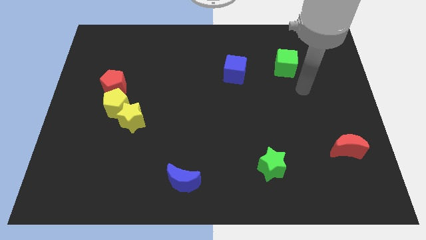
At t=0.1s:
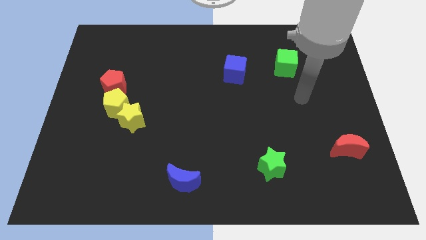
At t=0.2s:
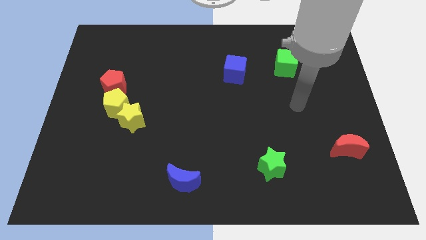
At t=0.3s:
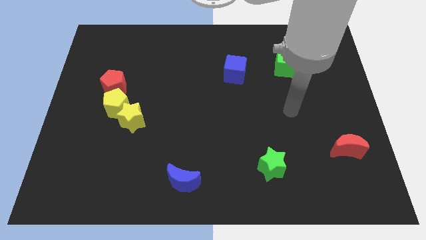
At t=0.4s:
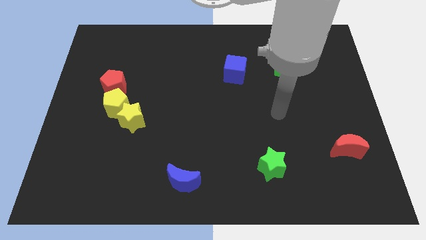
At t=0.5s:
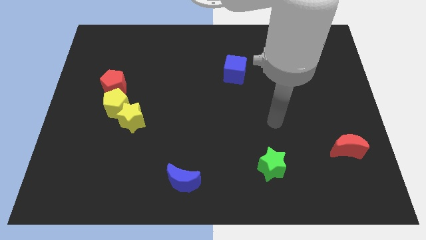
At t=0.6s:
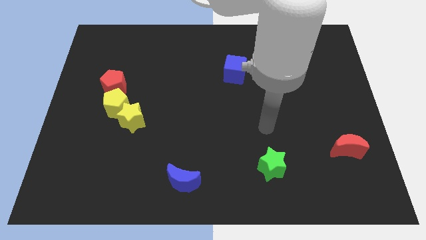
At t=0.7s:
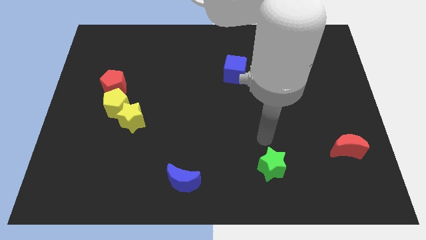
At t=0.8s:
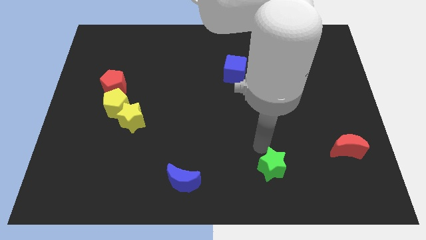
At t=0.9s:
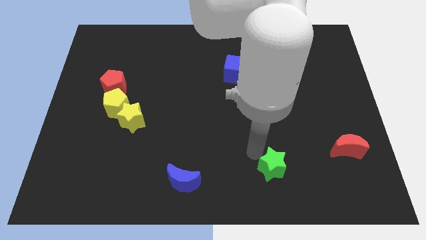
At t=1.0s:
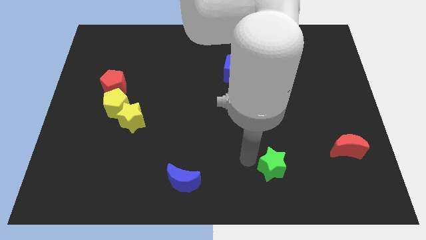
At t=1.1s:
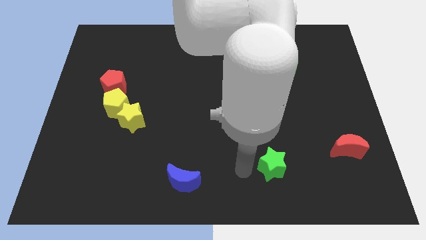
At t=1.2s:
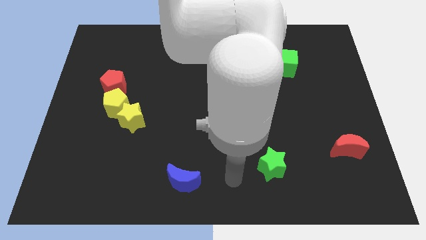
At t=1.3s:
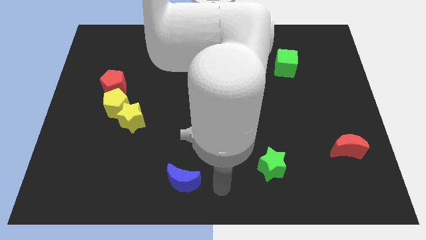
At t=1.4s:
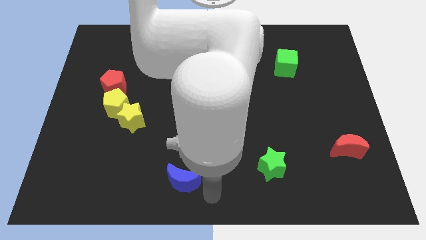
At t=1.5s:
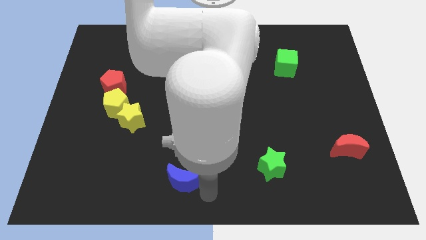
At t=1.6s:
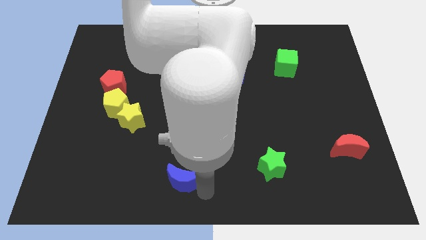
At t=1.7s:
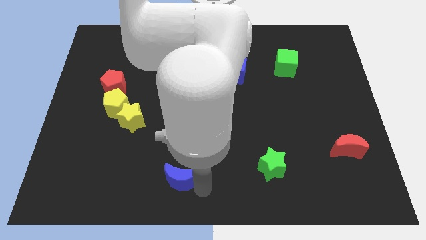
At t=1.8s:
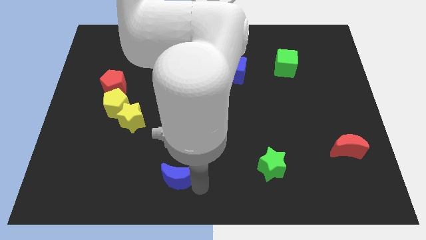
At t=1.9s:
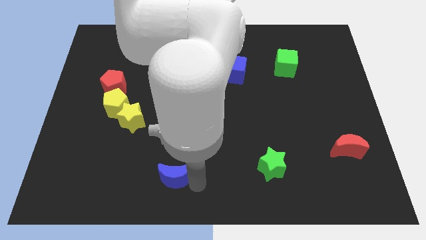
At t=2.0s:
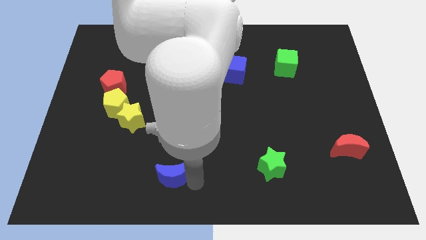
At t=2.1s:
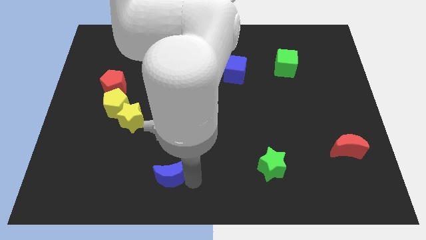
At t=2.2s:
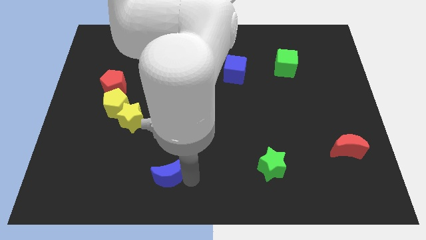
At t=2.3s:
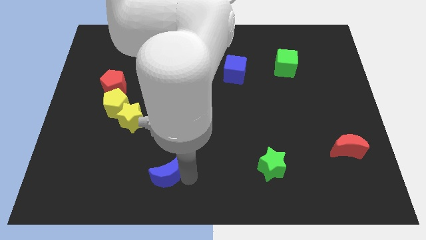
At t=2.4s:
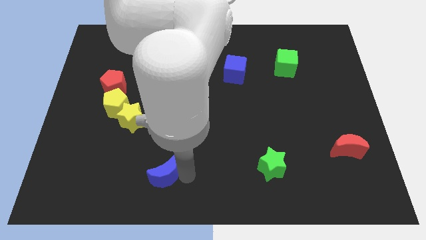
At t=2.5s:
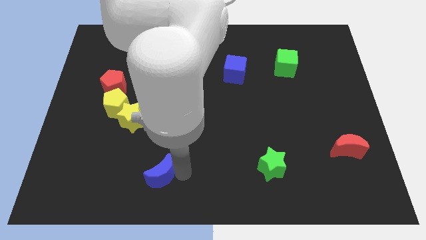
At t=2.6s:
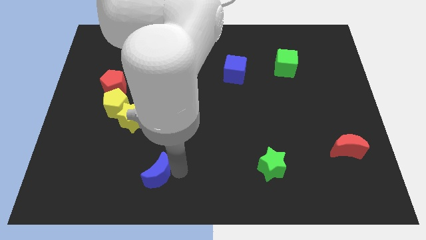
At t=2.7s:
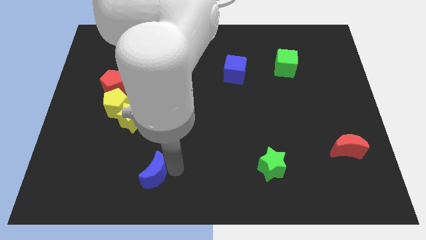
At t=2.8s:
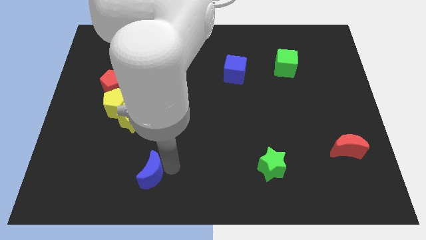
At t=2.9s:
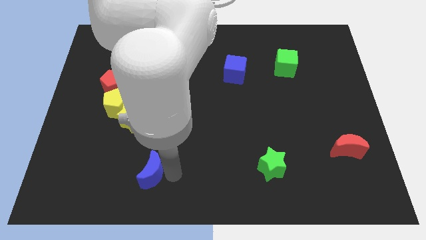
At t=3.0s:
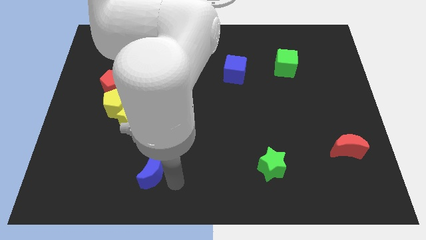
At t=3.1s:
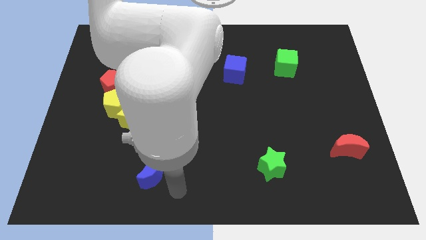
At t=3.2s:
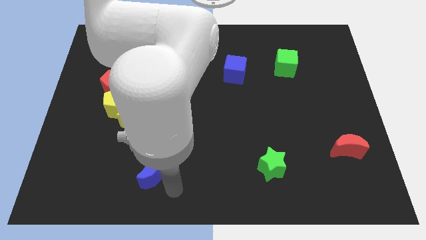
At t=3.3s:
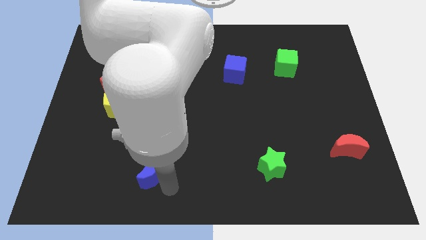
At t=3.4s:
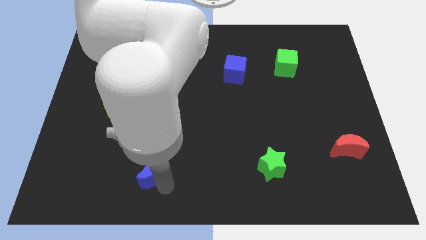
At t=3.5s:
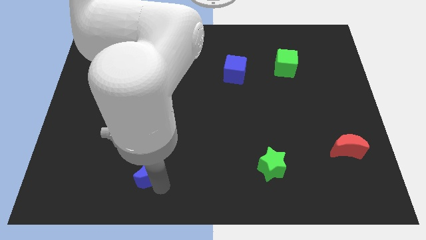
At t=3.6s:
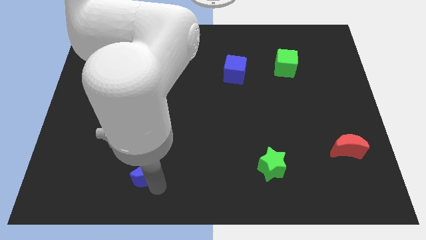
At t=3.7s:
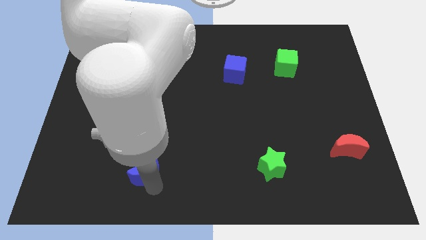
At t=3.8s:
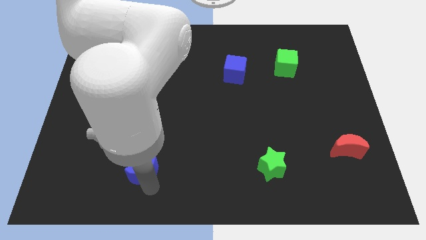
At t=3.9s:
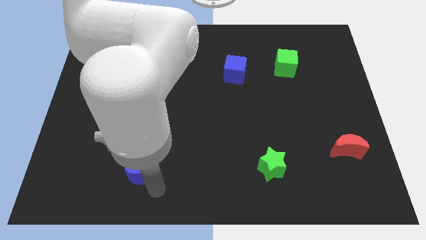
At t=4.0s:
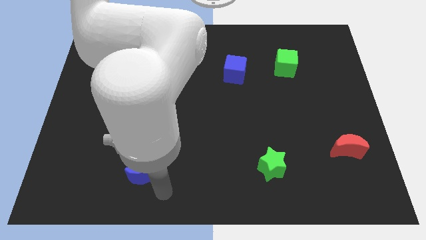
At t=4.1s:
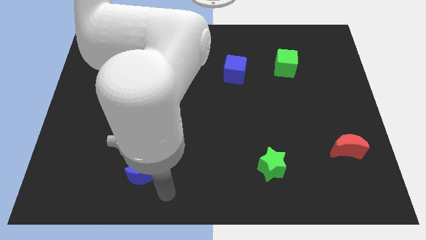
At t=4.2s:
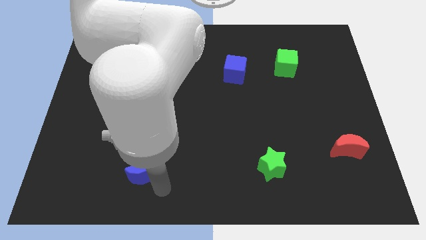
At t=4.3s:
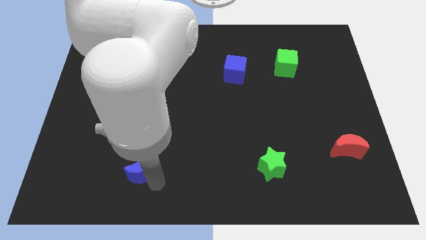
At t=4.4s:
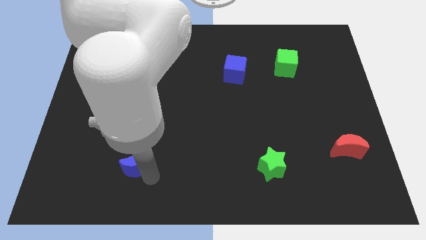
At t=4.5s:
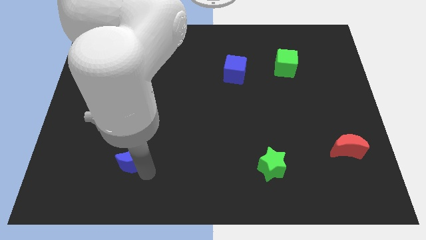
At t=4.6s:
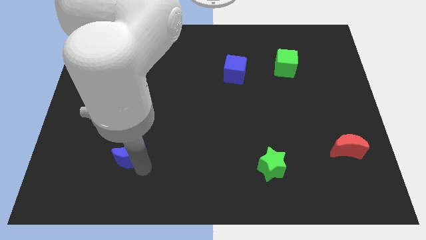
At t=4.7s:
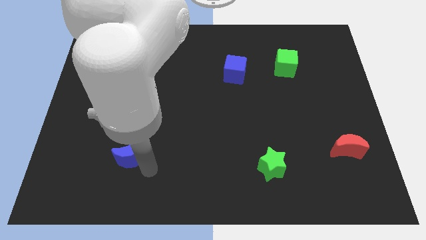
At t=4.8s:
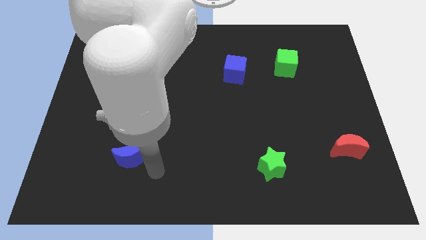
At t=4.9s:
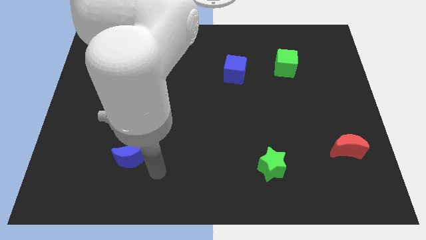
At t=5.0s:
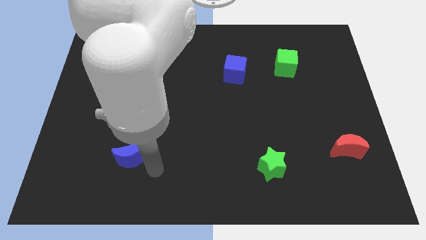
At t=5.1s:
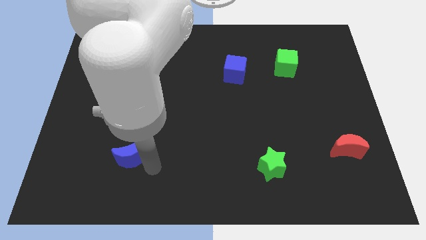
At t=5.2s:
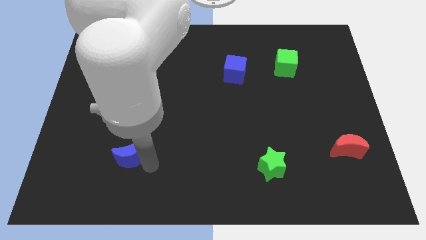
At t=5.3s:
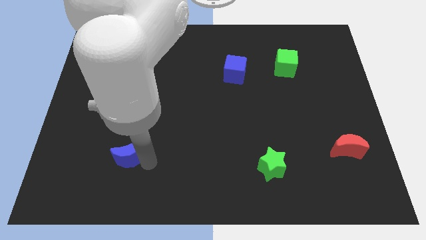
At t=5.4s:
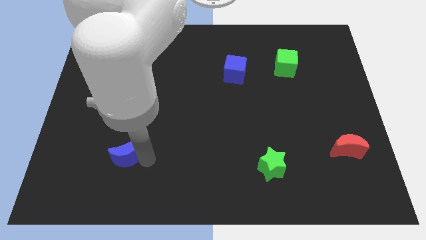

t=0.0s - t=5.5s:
slide the blue moon to the bottom side of the yellow pentagon

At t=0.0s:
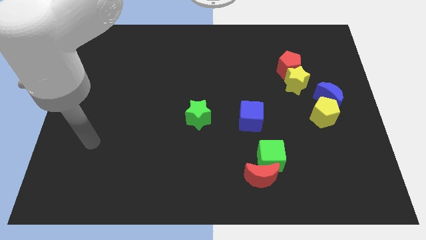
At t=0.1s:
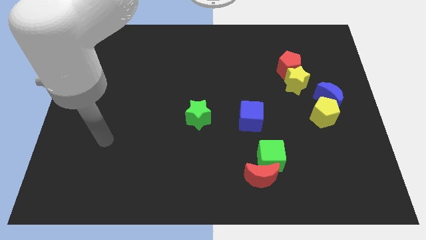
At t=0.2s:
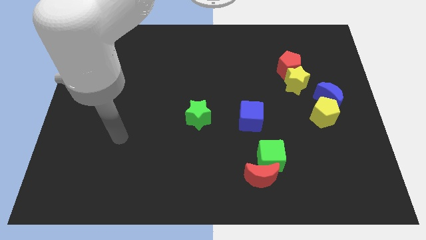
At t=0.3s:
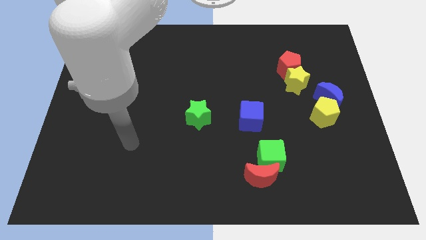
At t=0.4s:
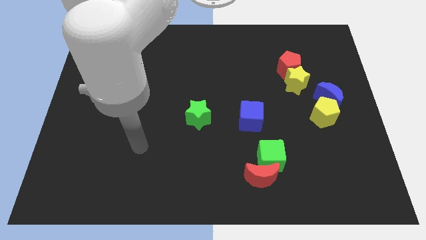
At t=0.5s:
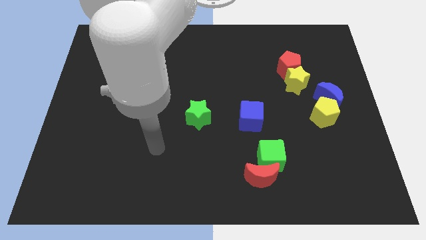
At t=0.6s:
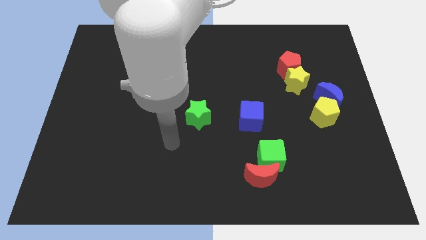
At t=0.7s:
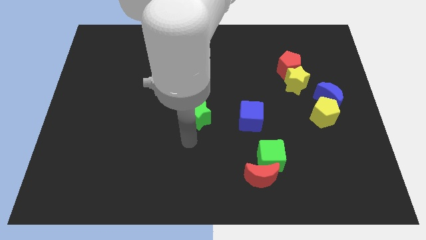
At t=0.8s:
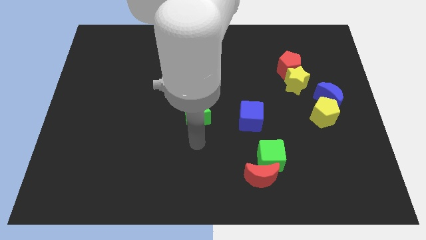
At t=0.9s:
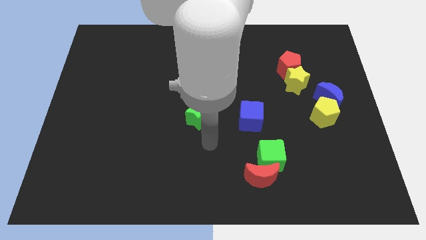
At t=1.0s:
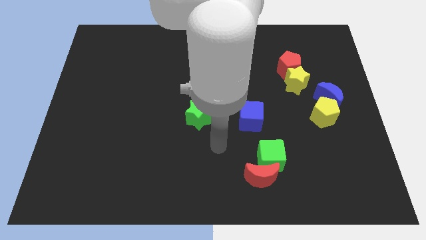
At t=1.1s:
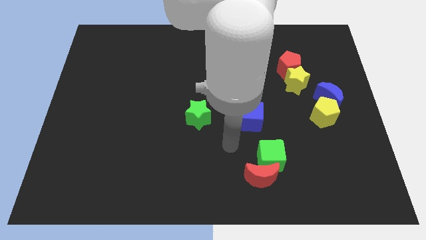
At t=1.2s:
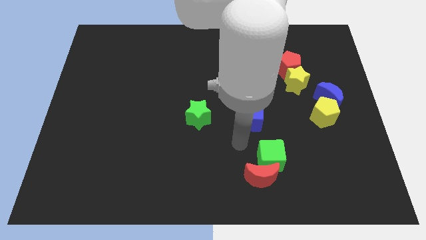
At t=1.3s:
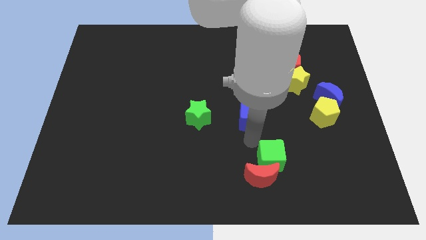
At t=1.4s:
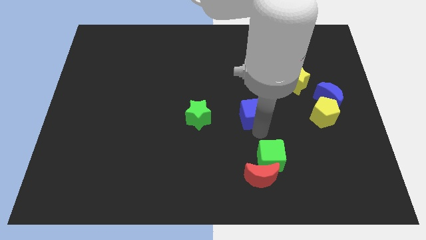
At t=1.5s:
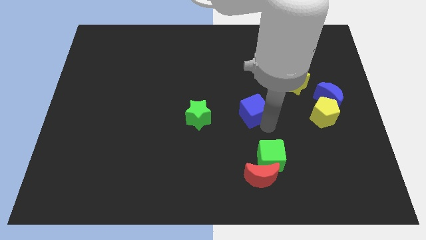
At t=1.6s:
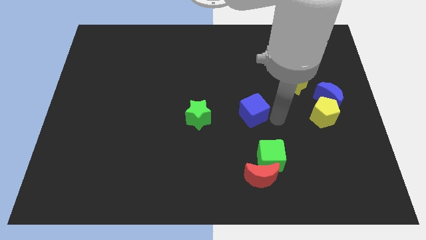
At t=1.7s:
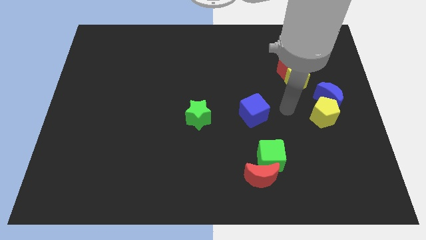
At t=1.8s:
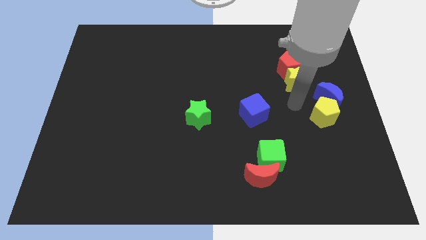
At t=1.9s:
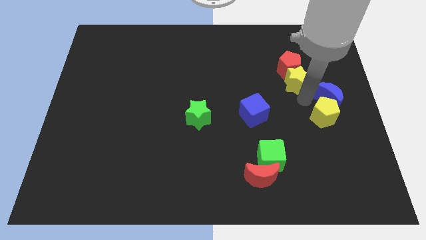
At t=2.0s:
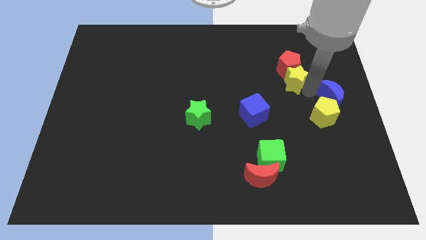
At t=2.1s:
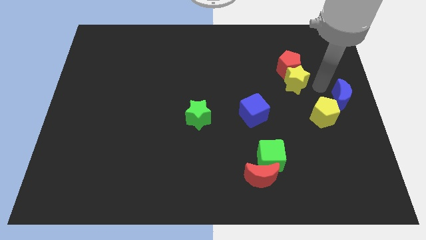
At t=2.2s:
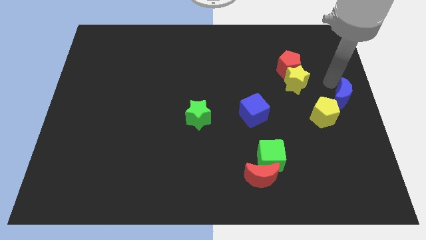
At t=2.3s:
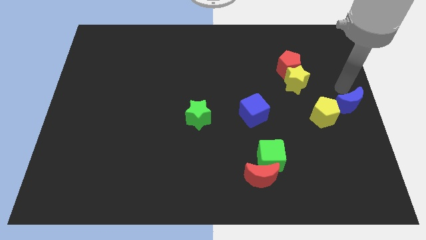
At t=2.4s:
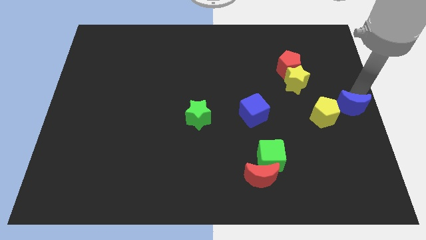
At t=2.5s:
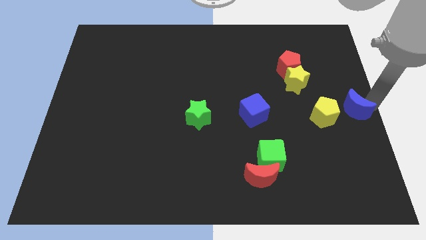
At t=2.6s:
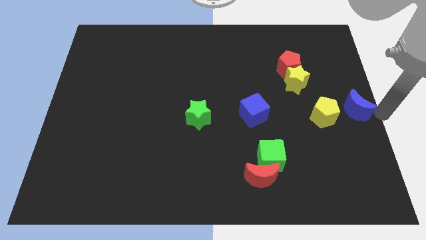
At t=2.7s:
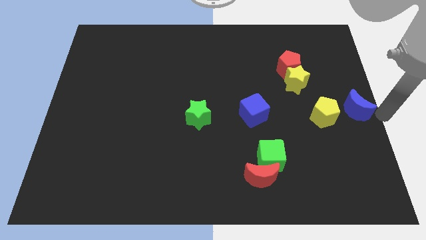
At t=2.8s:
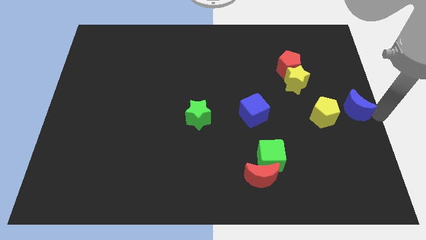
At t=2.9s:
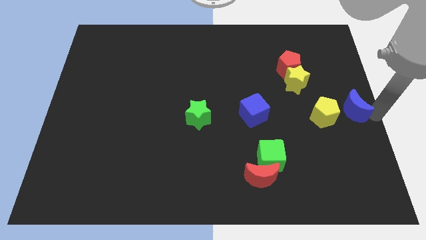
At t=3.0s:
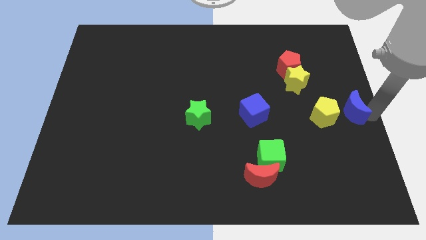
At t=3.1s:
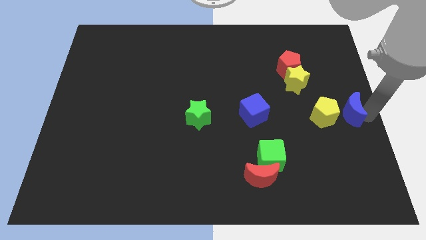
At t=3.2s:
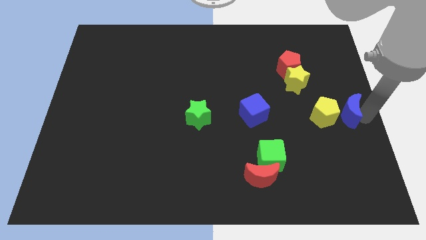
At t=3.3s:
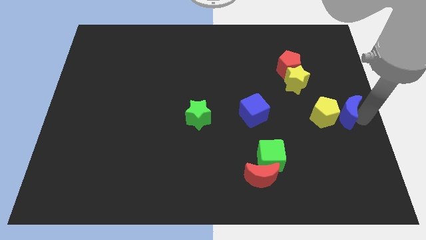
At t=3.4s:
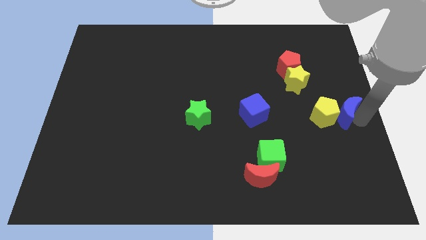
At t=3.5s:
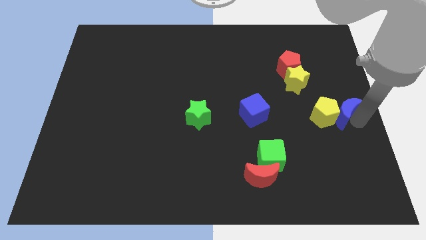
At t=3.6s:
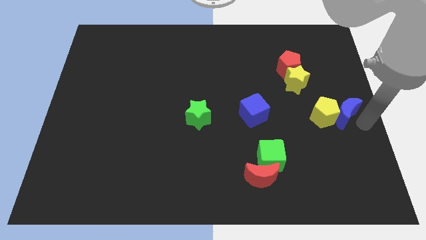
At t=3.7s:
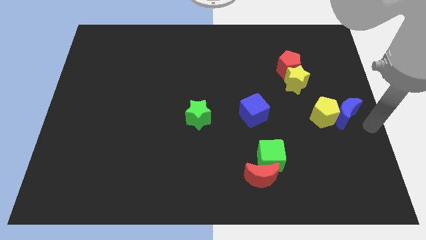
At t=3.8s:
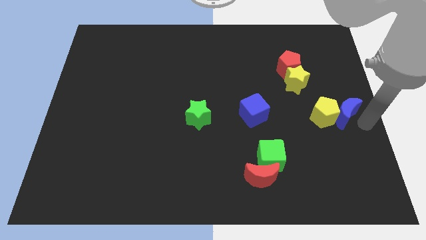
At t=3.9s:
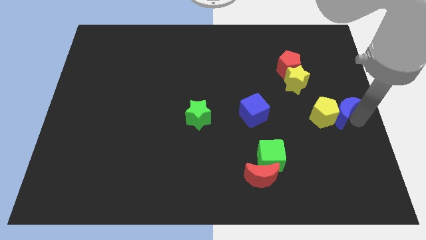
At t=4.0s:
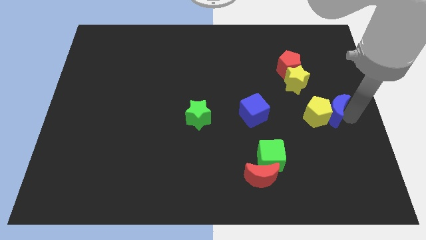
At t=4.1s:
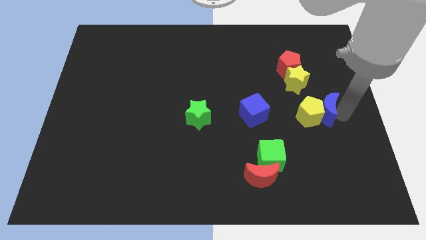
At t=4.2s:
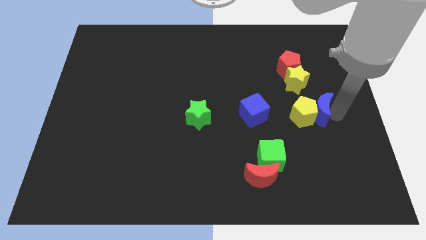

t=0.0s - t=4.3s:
move the blue moon just right of the blue cube
